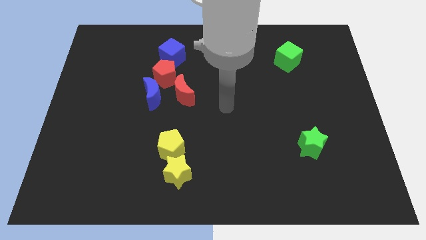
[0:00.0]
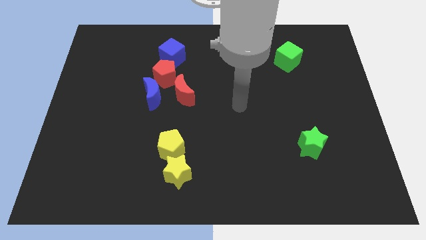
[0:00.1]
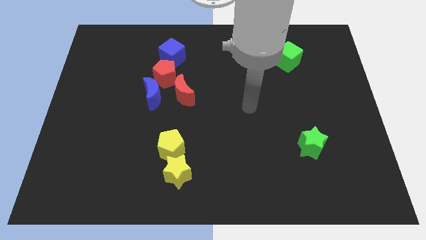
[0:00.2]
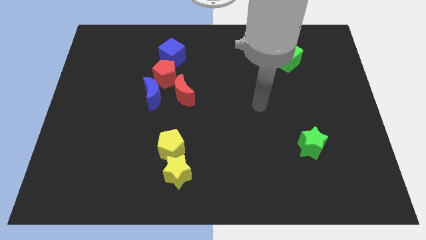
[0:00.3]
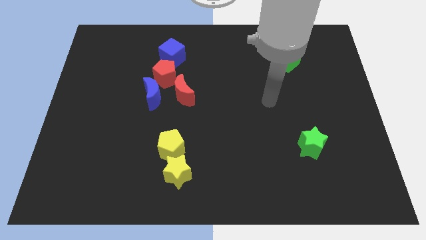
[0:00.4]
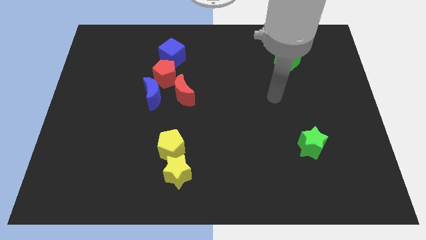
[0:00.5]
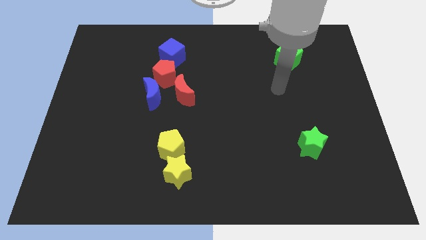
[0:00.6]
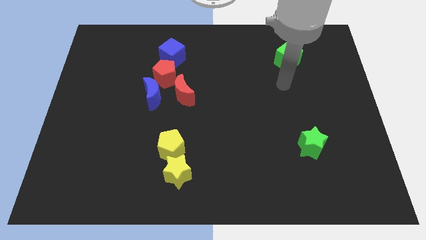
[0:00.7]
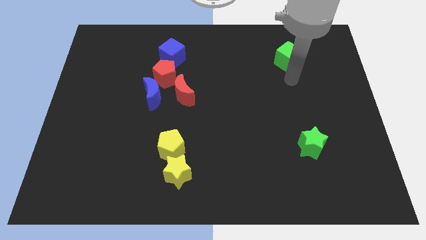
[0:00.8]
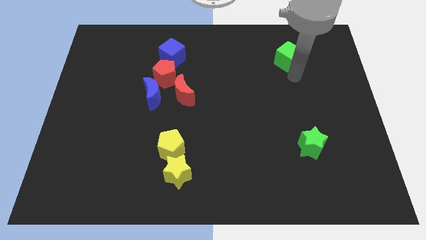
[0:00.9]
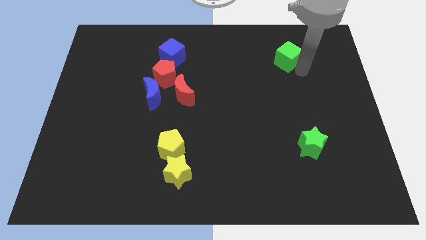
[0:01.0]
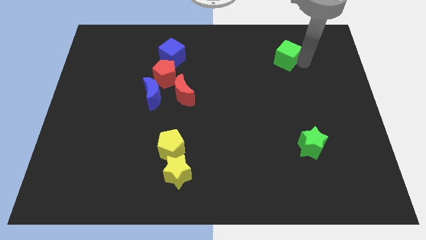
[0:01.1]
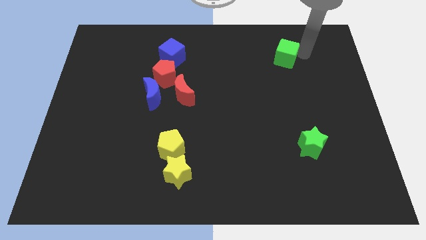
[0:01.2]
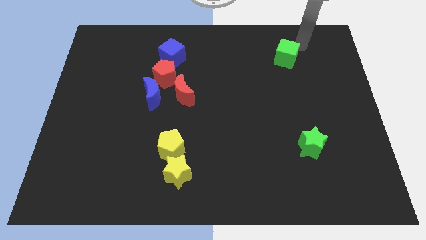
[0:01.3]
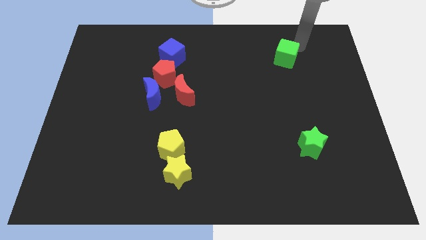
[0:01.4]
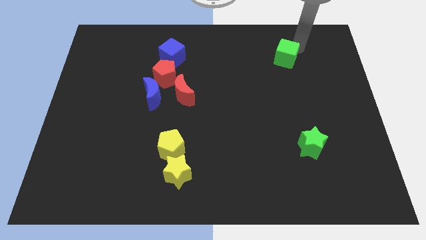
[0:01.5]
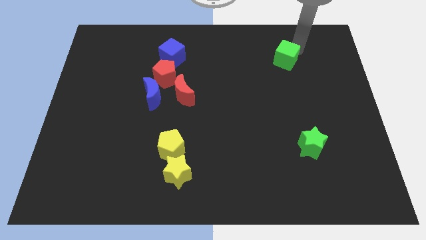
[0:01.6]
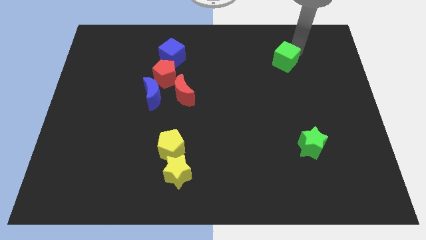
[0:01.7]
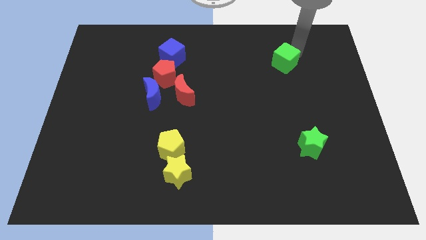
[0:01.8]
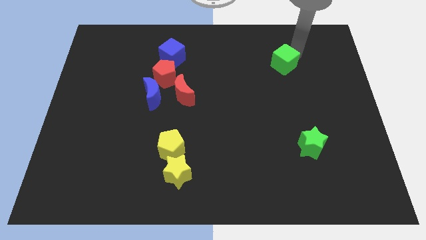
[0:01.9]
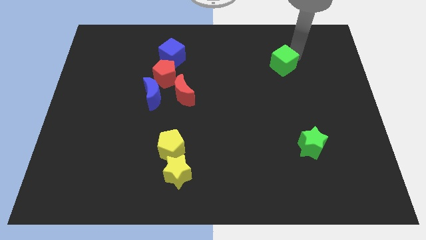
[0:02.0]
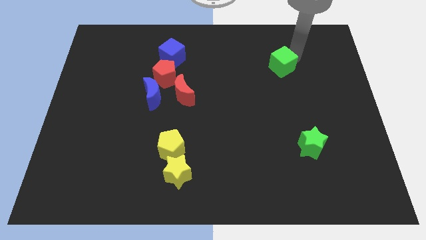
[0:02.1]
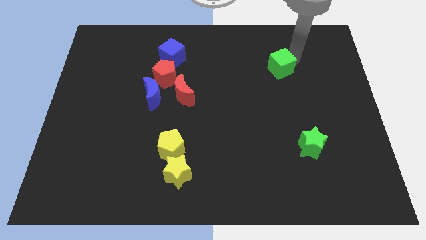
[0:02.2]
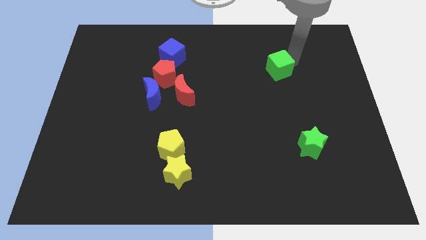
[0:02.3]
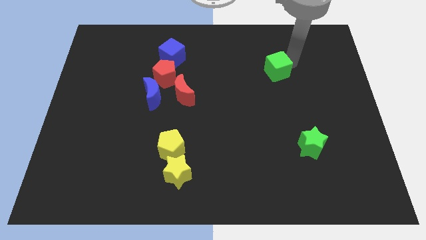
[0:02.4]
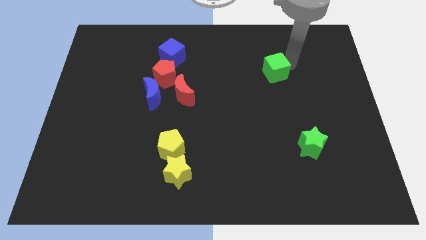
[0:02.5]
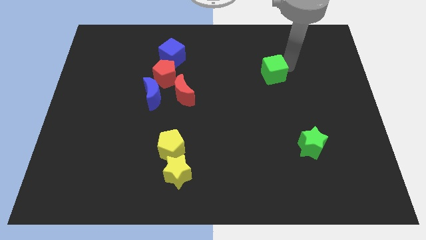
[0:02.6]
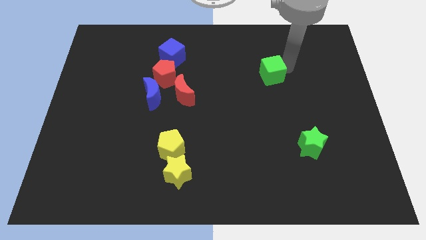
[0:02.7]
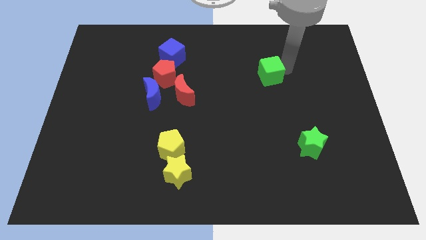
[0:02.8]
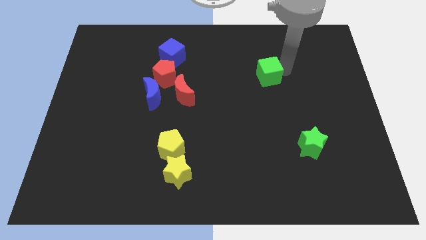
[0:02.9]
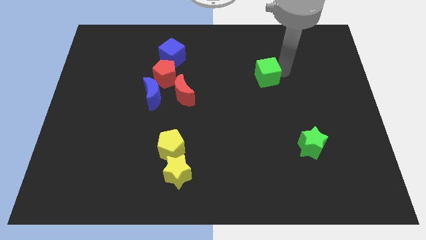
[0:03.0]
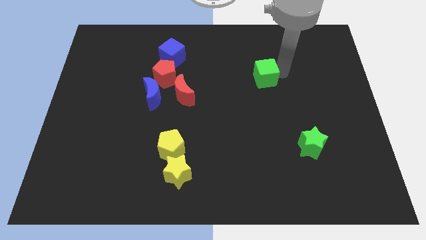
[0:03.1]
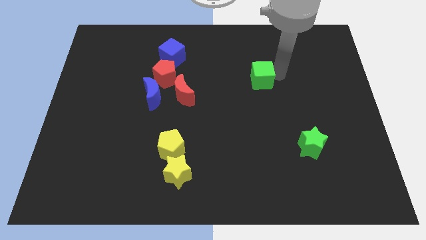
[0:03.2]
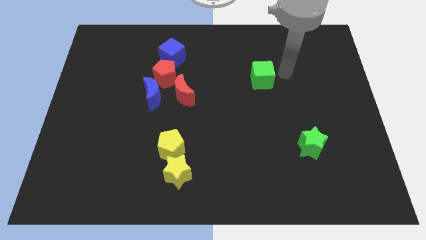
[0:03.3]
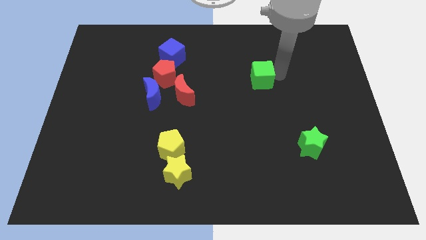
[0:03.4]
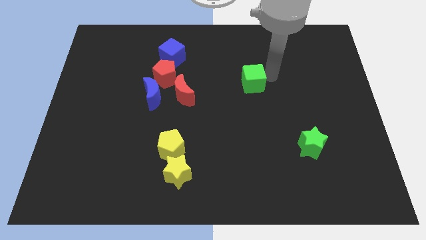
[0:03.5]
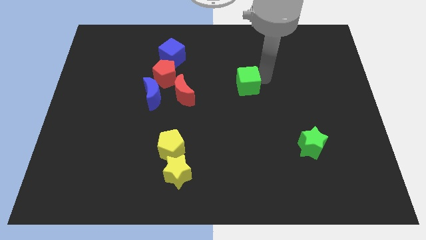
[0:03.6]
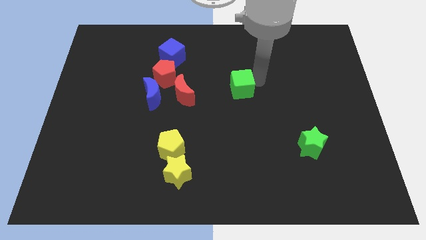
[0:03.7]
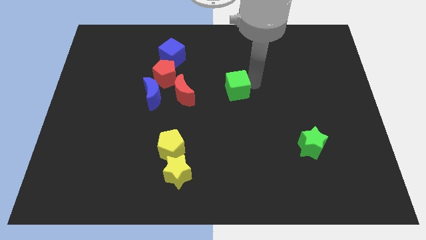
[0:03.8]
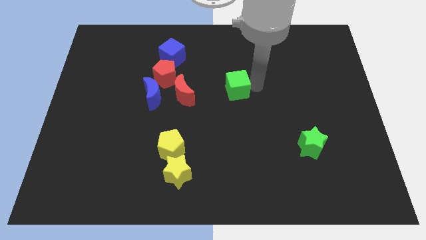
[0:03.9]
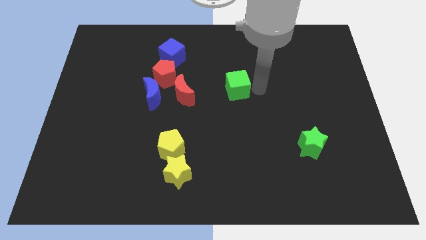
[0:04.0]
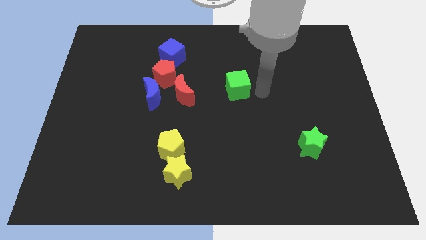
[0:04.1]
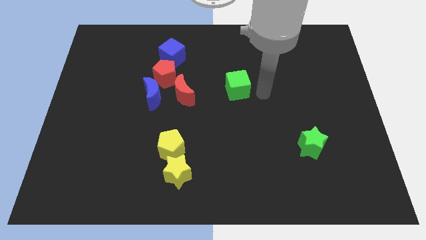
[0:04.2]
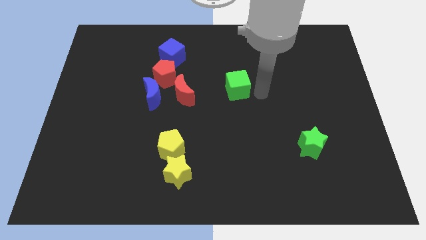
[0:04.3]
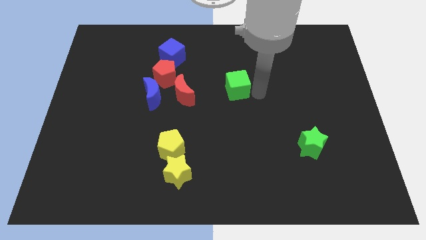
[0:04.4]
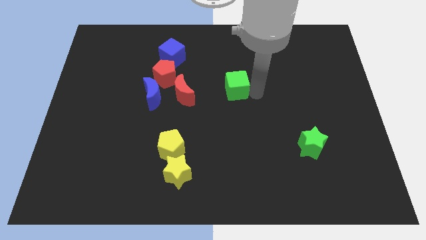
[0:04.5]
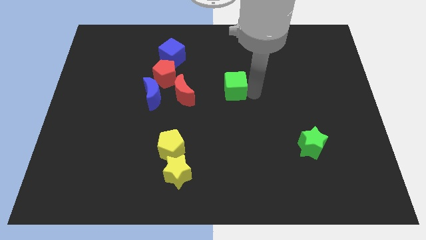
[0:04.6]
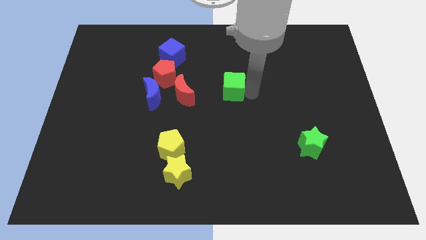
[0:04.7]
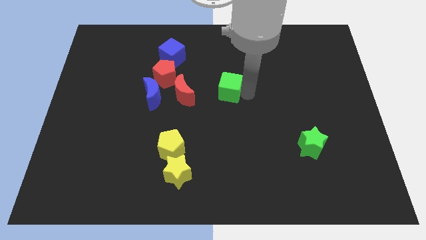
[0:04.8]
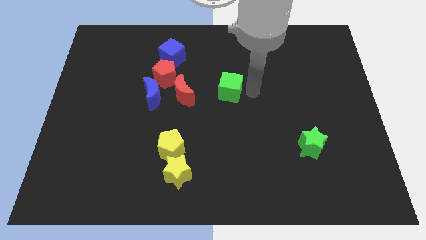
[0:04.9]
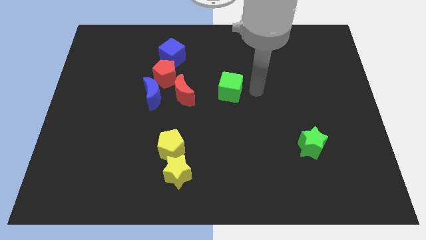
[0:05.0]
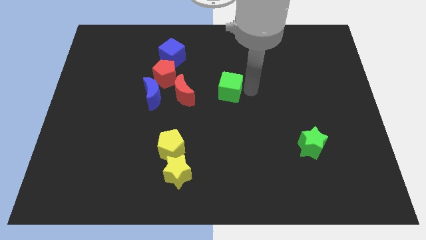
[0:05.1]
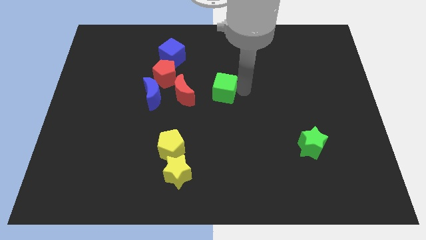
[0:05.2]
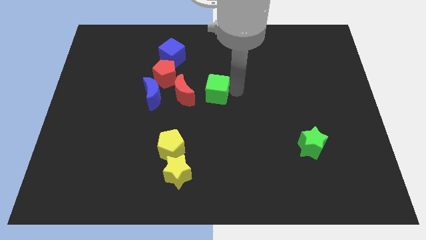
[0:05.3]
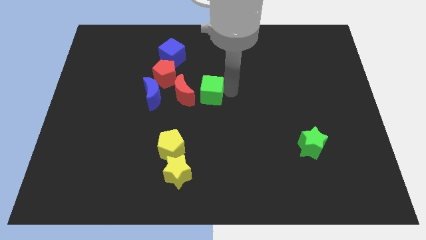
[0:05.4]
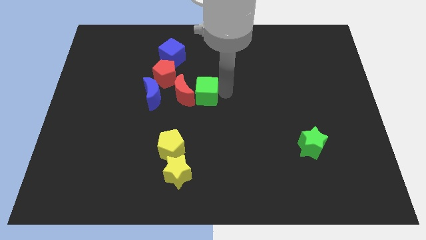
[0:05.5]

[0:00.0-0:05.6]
slide the green cube towards the red moon

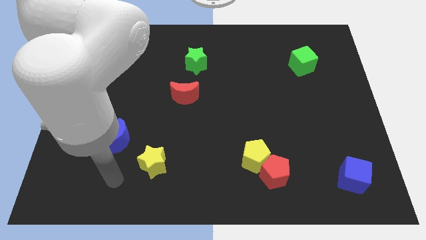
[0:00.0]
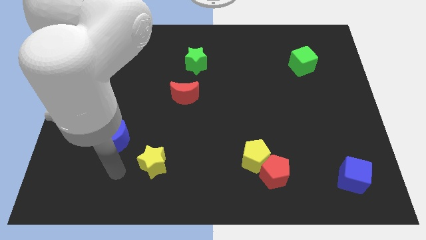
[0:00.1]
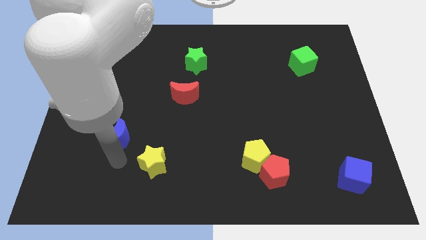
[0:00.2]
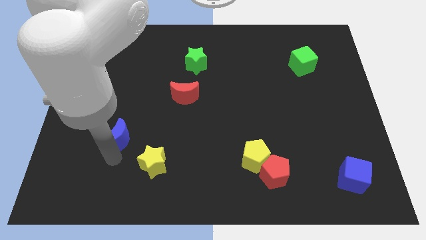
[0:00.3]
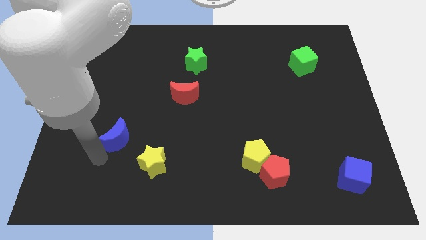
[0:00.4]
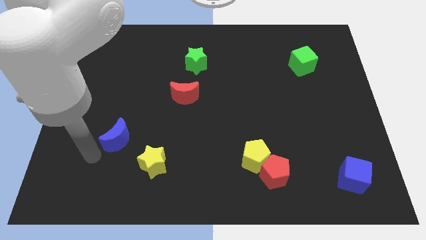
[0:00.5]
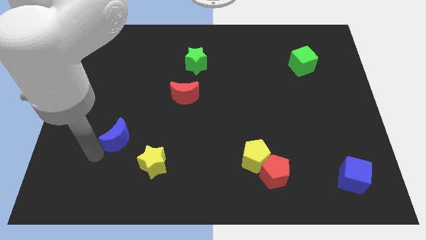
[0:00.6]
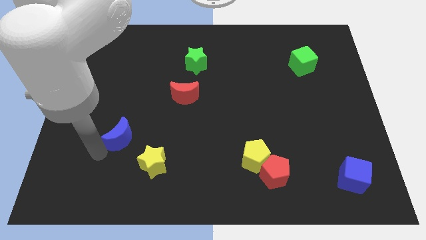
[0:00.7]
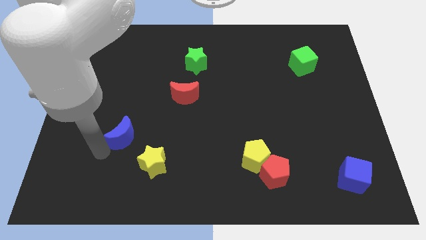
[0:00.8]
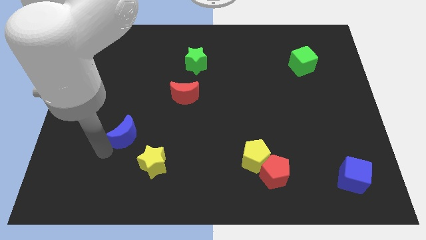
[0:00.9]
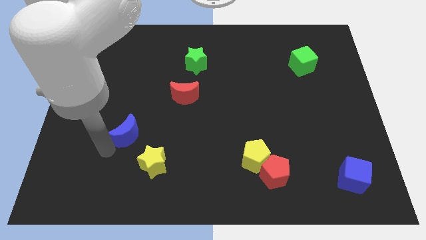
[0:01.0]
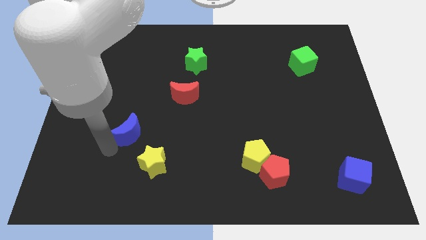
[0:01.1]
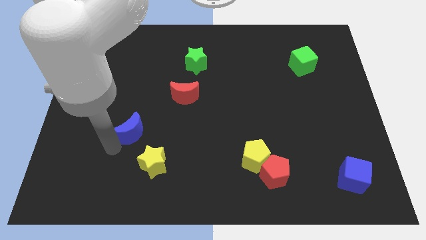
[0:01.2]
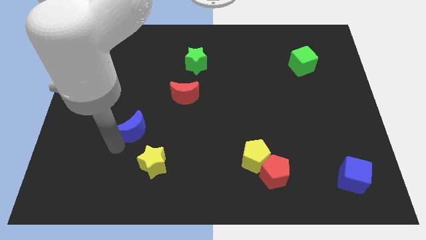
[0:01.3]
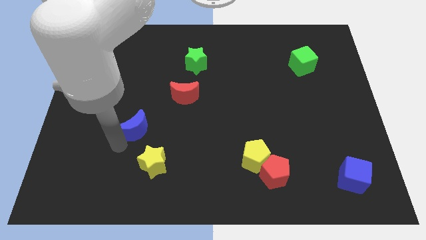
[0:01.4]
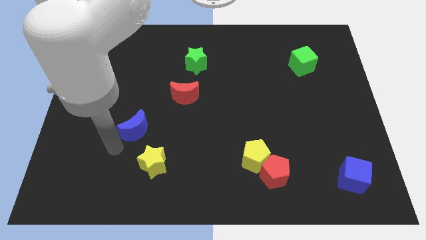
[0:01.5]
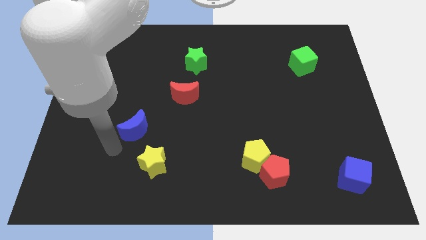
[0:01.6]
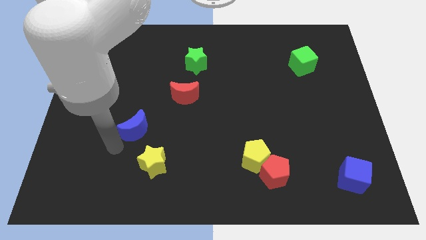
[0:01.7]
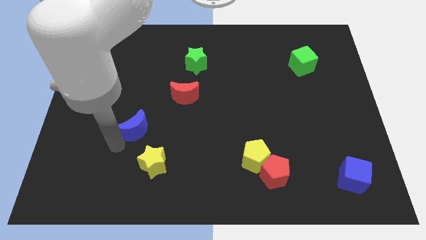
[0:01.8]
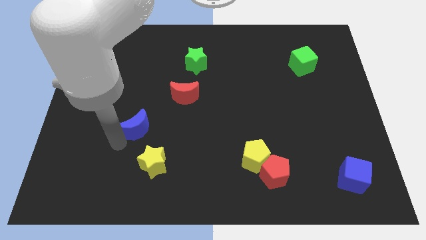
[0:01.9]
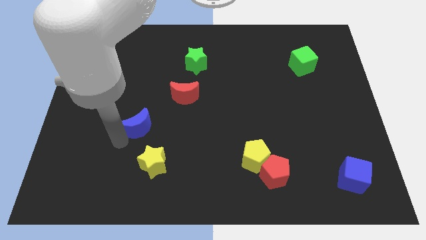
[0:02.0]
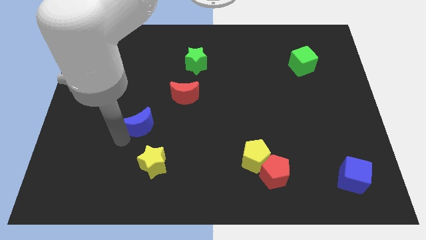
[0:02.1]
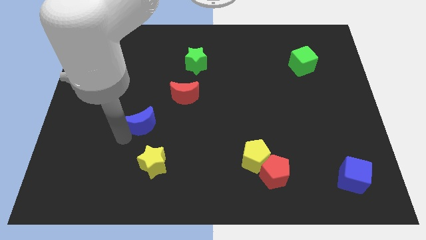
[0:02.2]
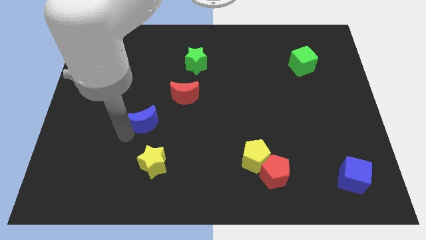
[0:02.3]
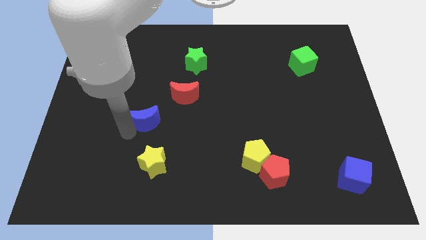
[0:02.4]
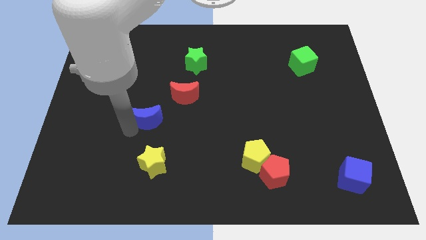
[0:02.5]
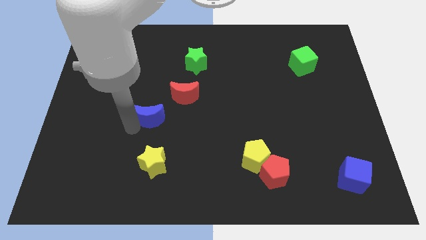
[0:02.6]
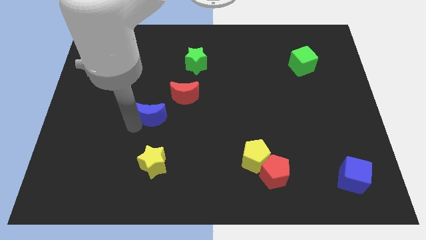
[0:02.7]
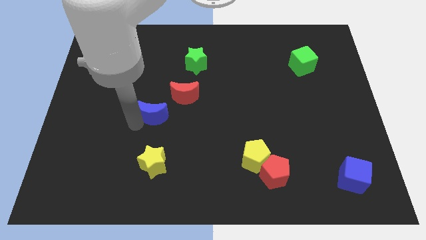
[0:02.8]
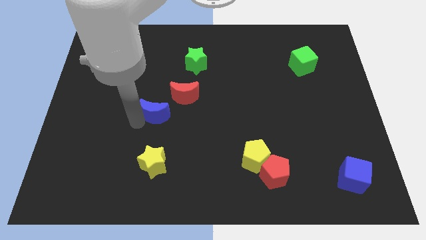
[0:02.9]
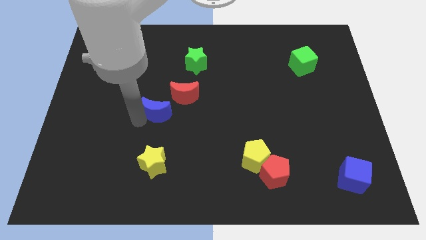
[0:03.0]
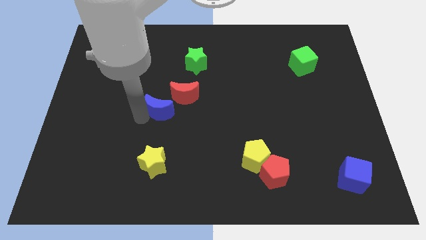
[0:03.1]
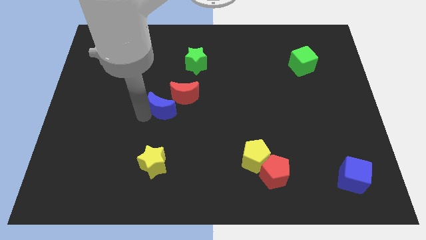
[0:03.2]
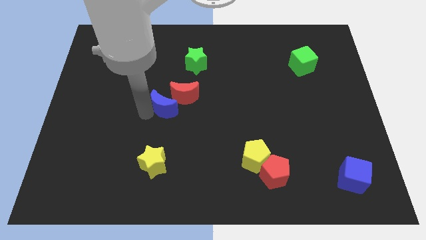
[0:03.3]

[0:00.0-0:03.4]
put the blue moon to the red moon
